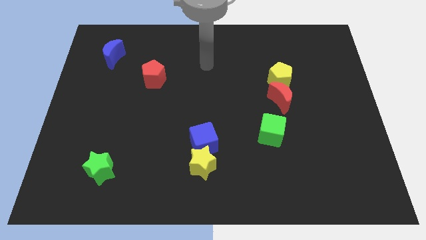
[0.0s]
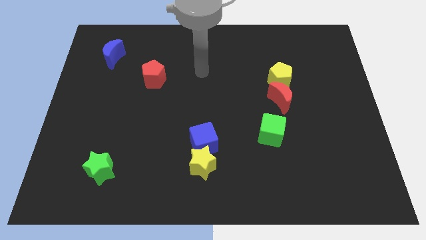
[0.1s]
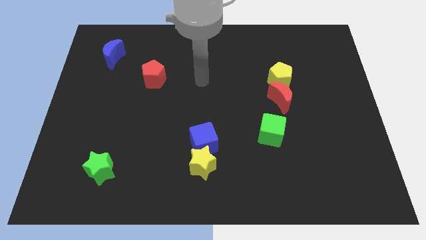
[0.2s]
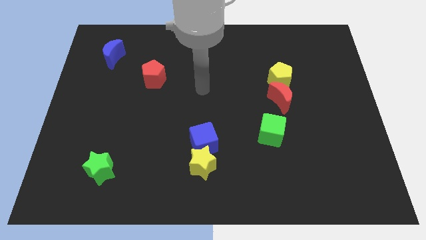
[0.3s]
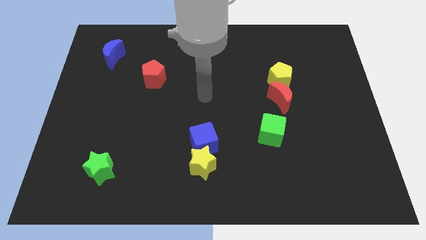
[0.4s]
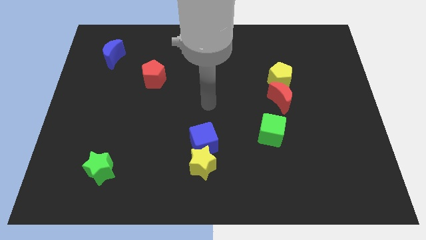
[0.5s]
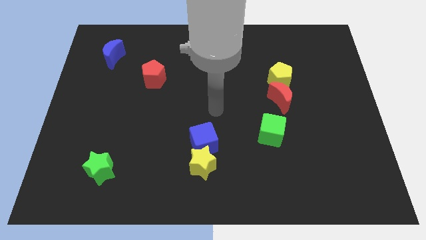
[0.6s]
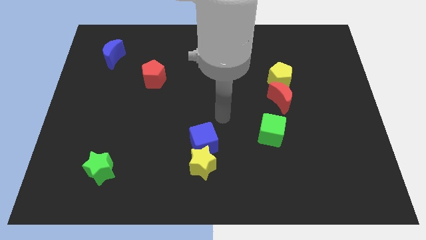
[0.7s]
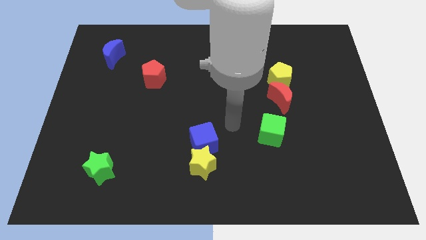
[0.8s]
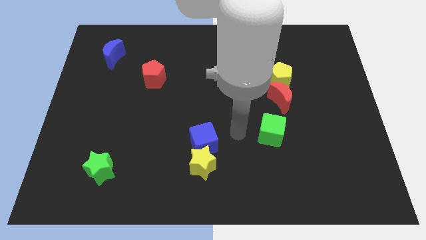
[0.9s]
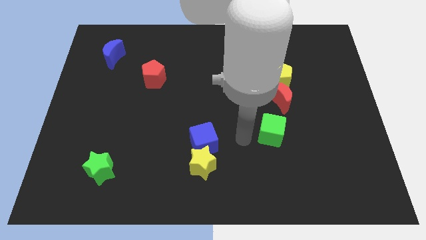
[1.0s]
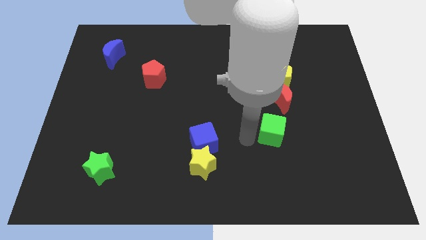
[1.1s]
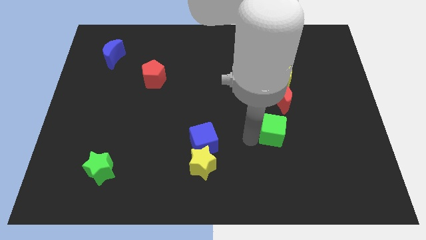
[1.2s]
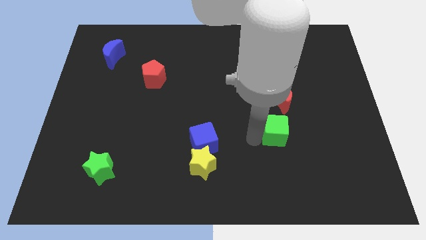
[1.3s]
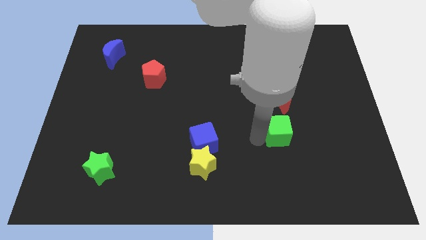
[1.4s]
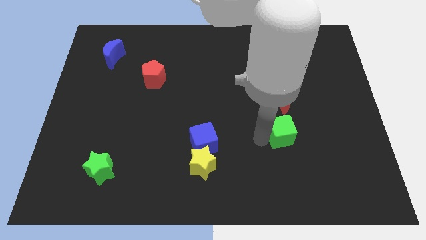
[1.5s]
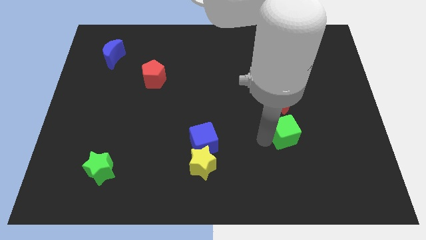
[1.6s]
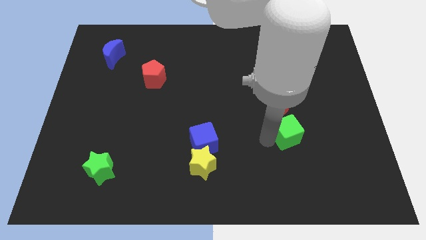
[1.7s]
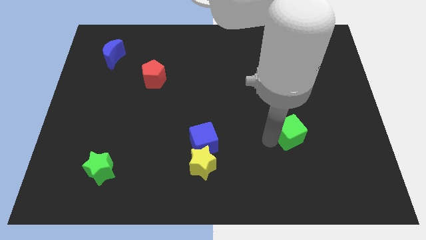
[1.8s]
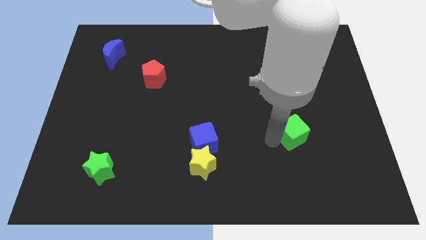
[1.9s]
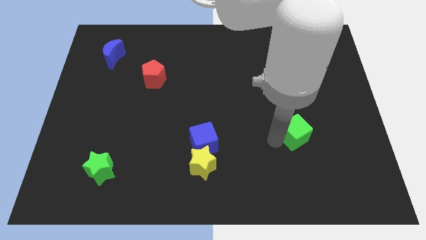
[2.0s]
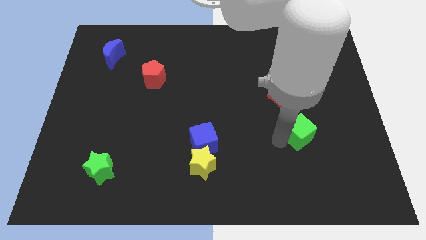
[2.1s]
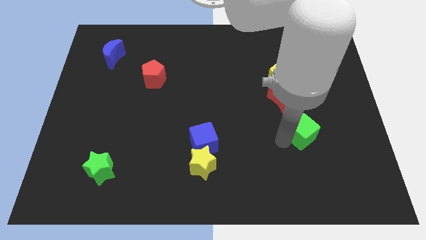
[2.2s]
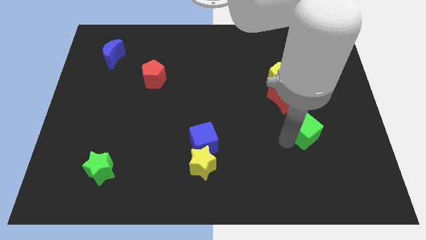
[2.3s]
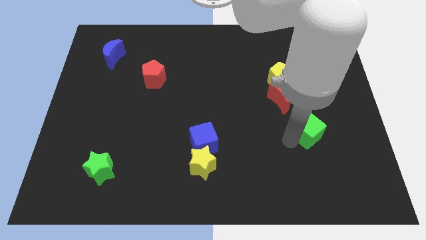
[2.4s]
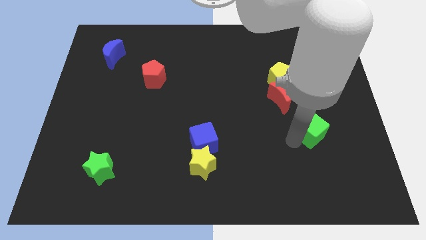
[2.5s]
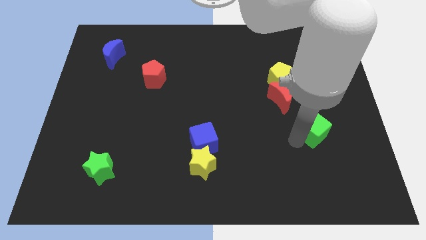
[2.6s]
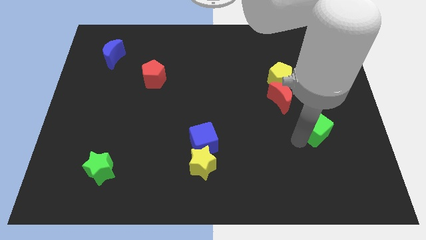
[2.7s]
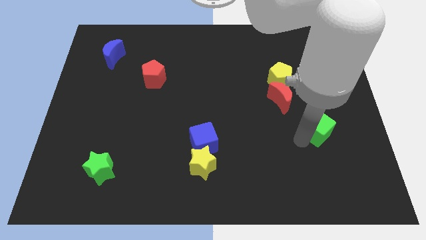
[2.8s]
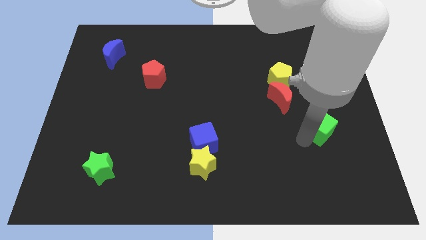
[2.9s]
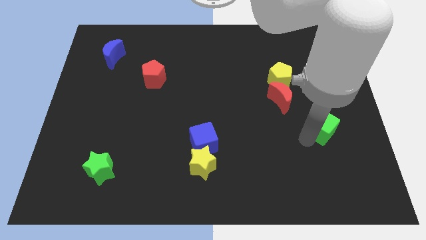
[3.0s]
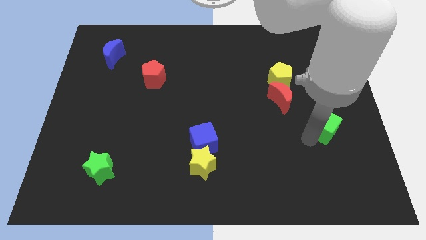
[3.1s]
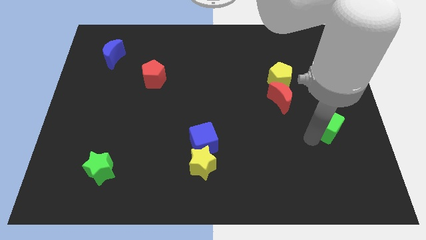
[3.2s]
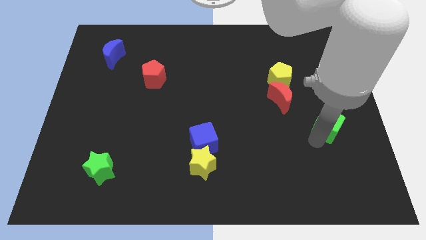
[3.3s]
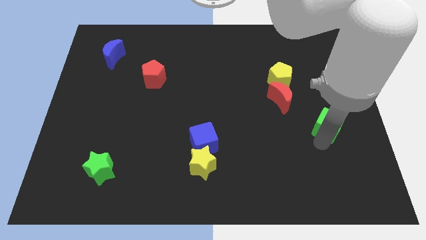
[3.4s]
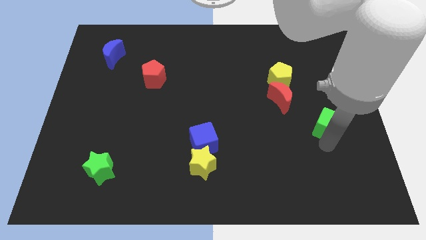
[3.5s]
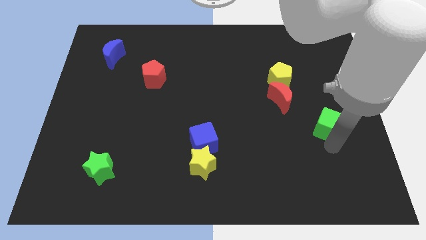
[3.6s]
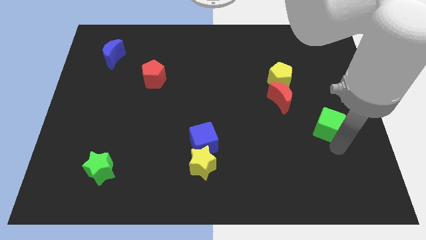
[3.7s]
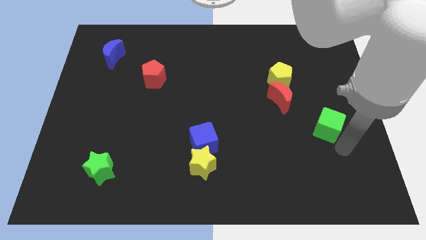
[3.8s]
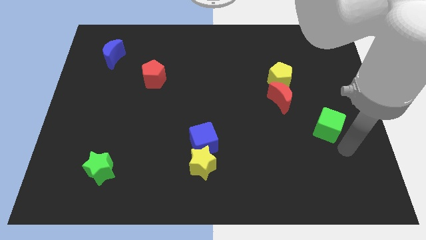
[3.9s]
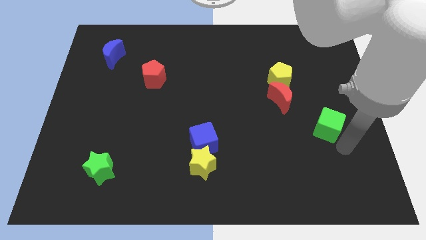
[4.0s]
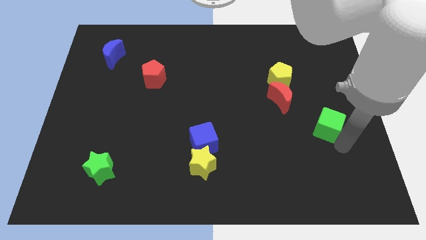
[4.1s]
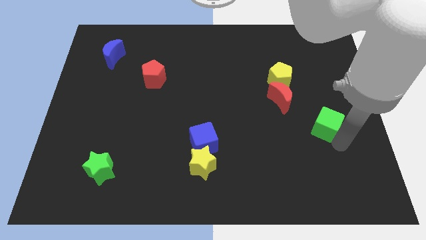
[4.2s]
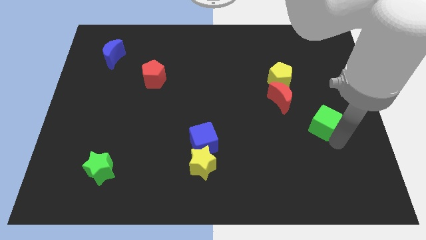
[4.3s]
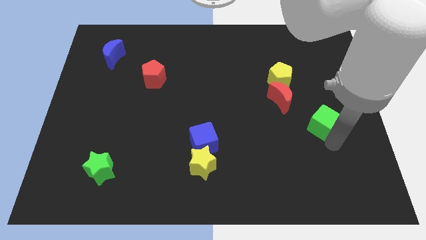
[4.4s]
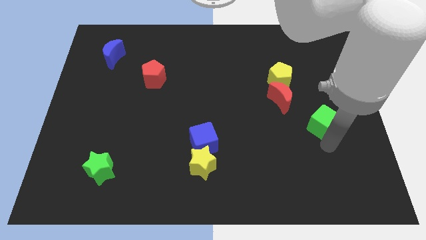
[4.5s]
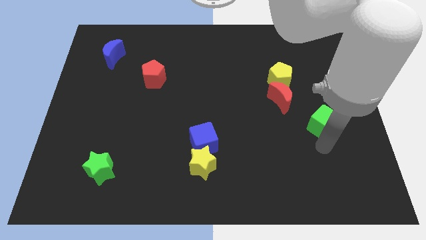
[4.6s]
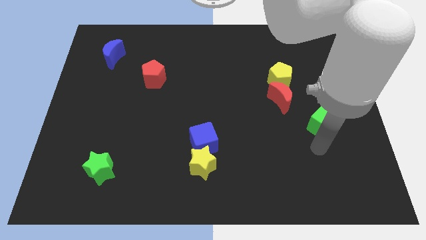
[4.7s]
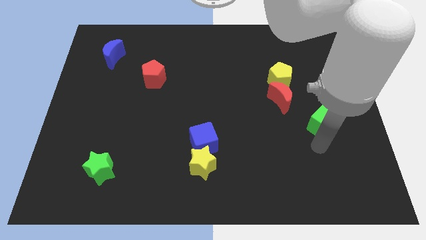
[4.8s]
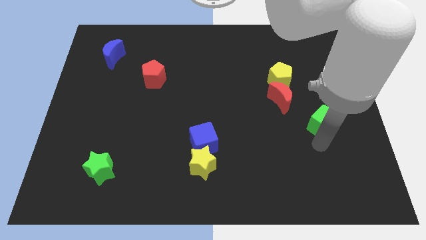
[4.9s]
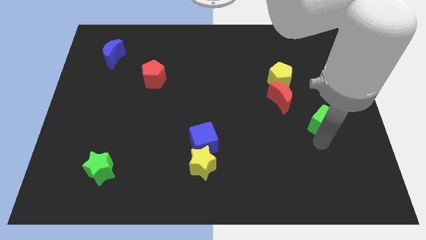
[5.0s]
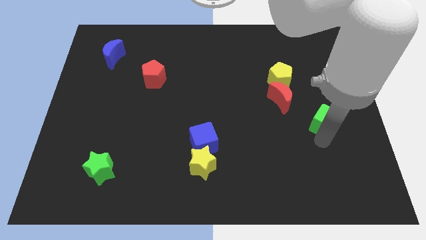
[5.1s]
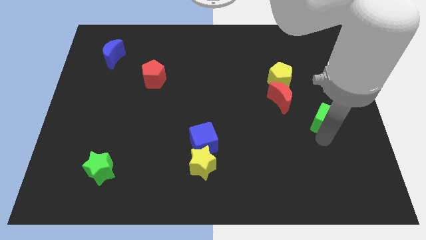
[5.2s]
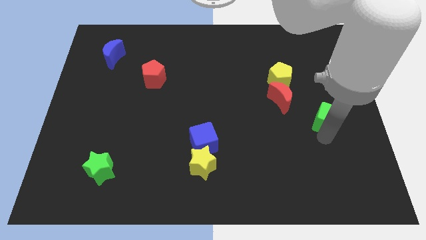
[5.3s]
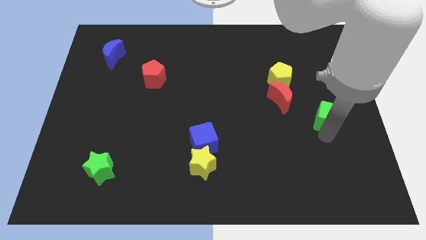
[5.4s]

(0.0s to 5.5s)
slide the green cube to the right side

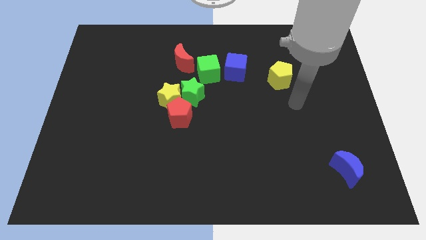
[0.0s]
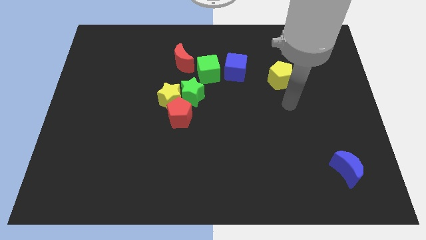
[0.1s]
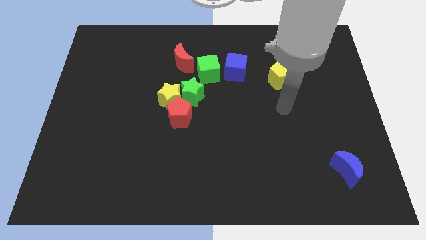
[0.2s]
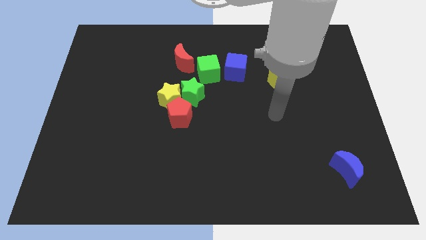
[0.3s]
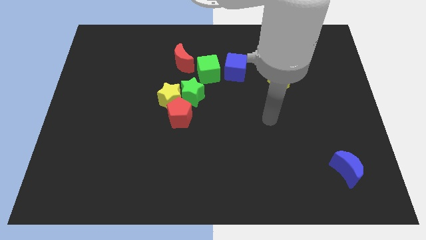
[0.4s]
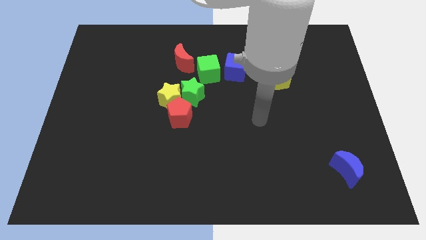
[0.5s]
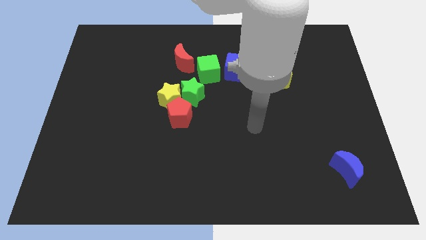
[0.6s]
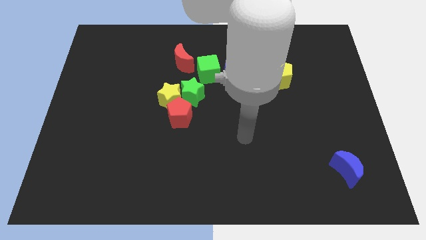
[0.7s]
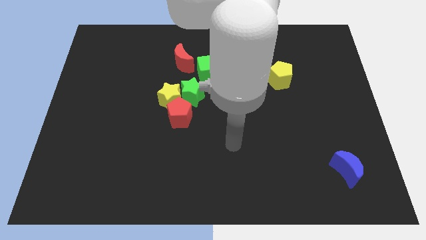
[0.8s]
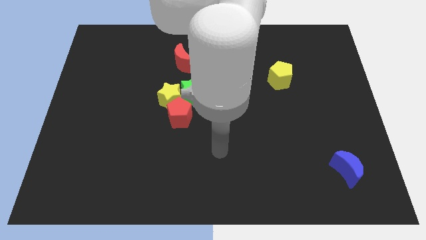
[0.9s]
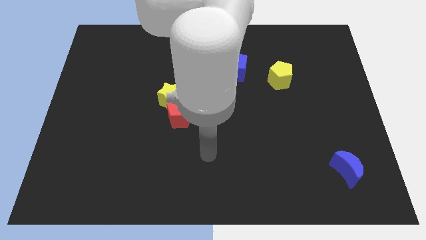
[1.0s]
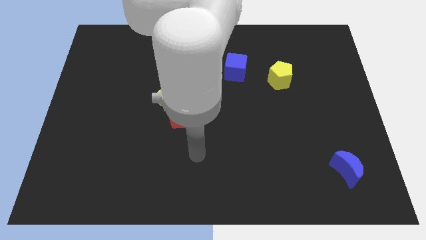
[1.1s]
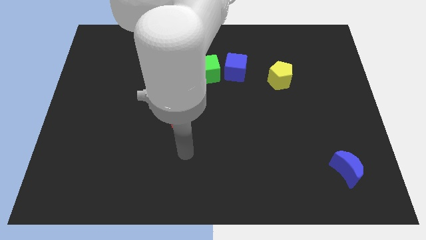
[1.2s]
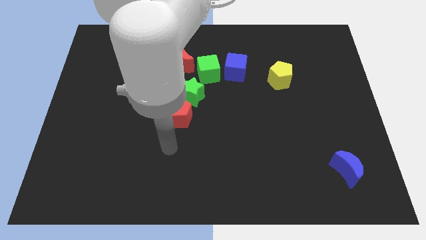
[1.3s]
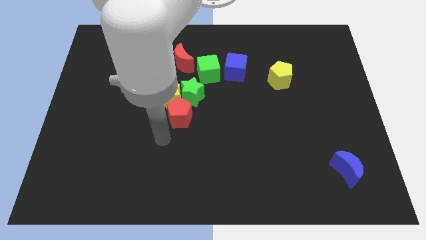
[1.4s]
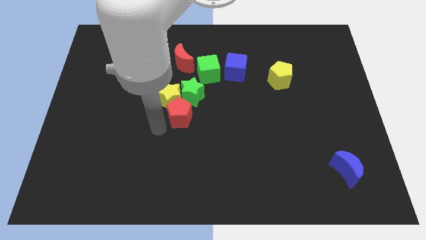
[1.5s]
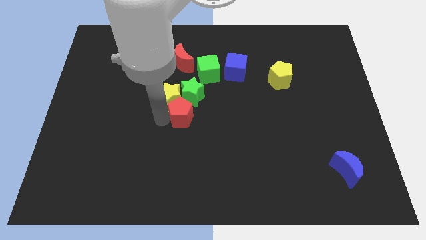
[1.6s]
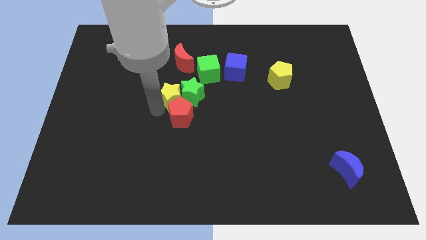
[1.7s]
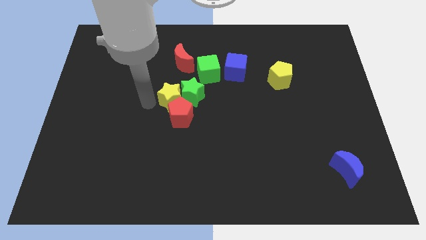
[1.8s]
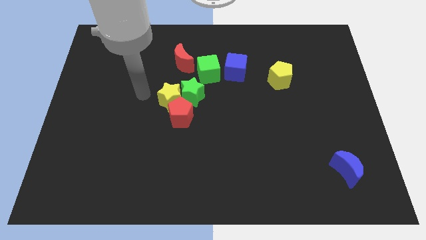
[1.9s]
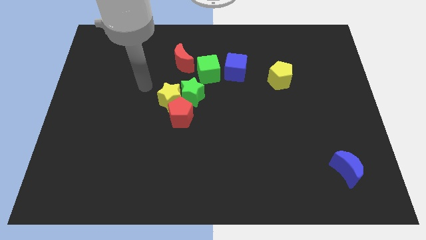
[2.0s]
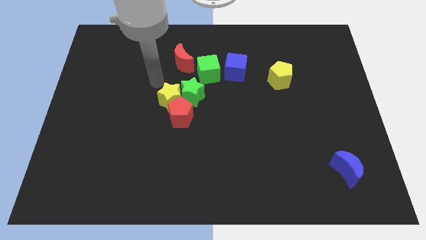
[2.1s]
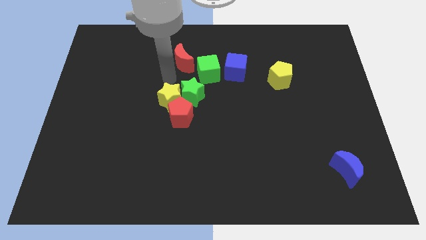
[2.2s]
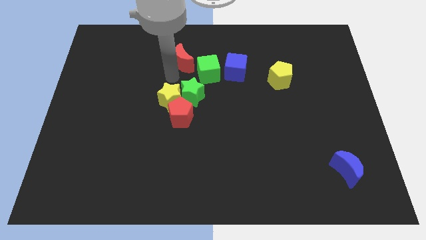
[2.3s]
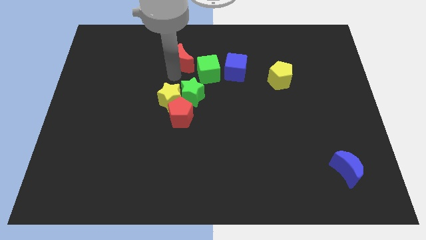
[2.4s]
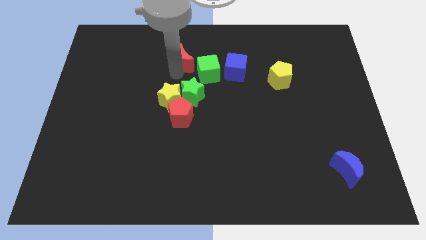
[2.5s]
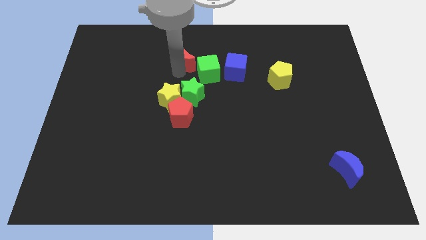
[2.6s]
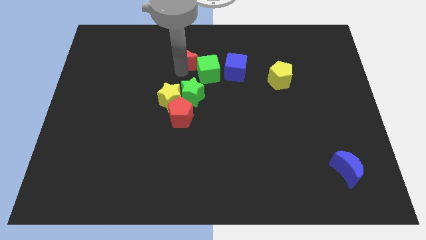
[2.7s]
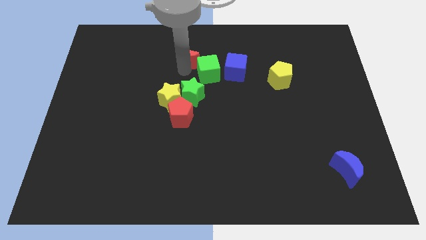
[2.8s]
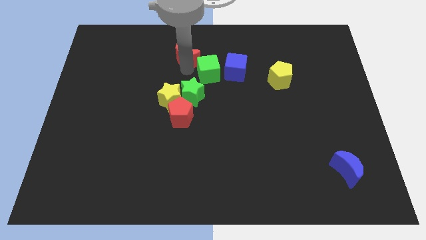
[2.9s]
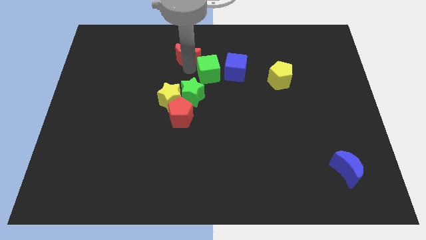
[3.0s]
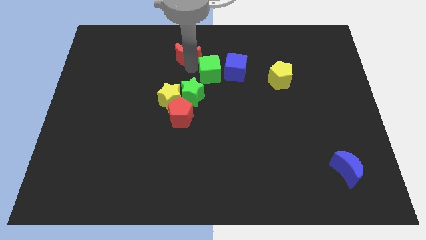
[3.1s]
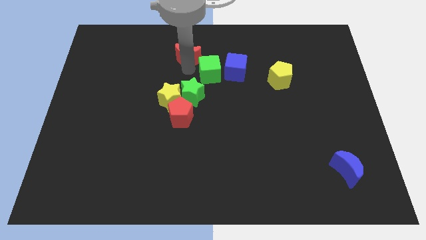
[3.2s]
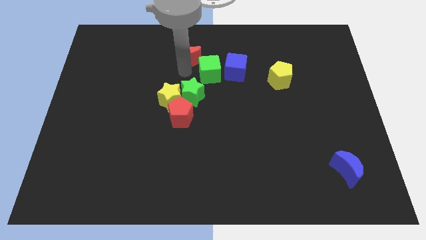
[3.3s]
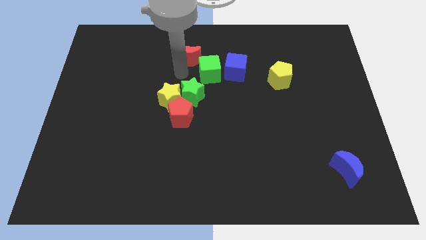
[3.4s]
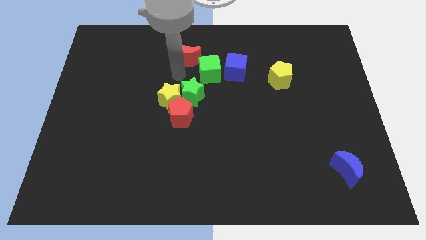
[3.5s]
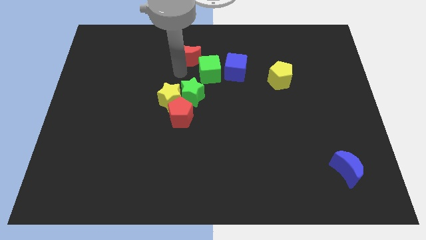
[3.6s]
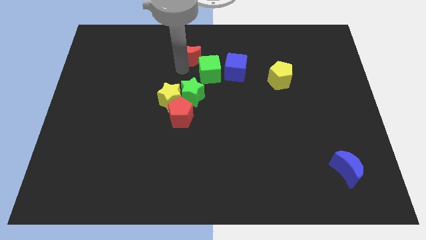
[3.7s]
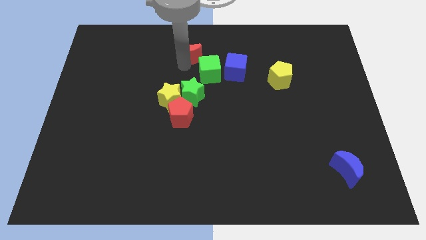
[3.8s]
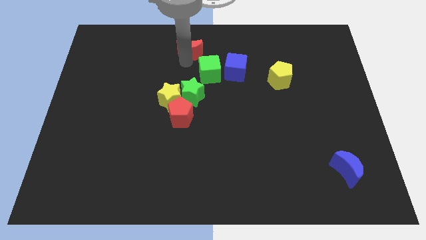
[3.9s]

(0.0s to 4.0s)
slide the red moon to the top
